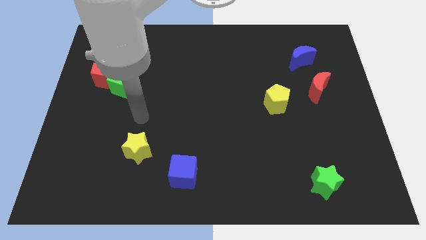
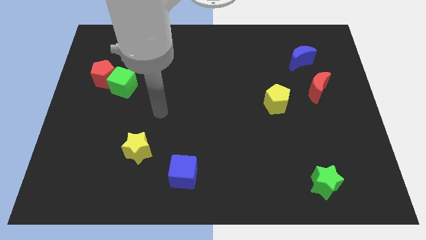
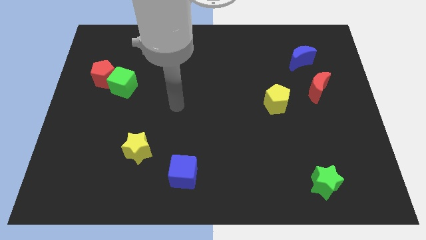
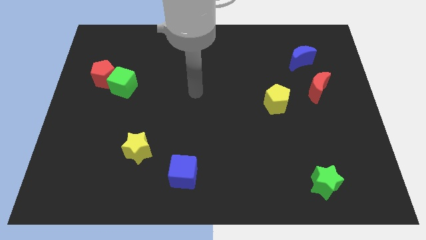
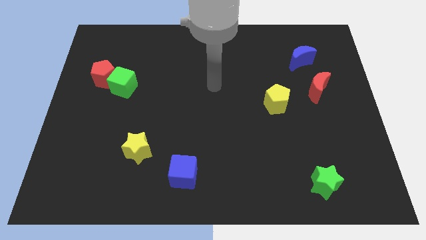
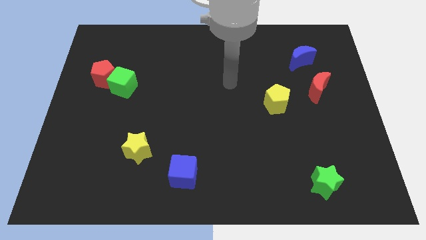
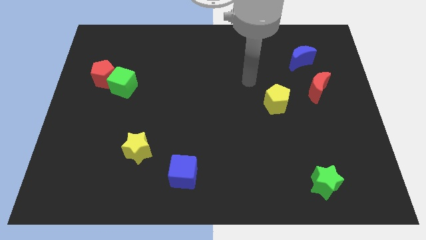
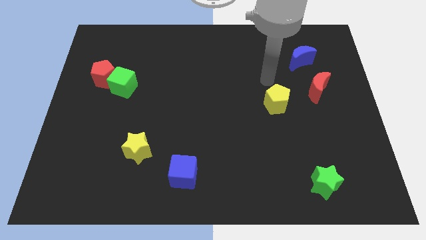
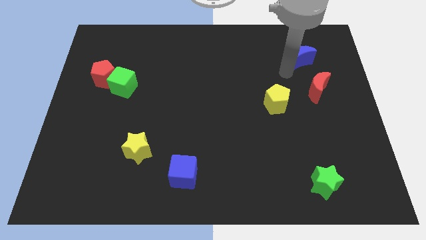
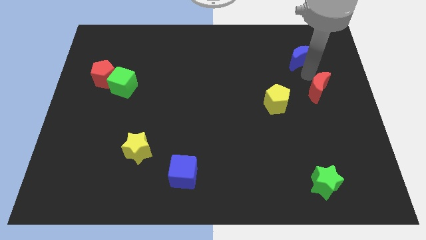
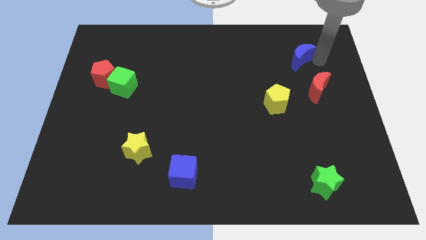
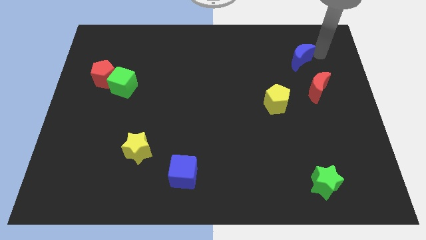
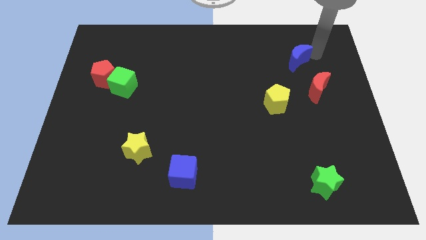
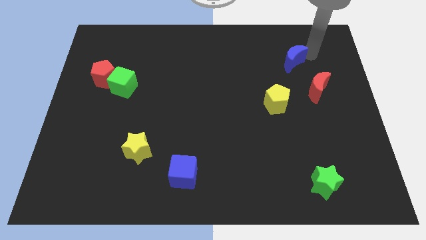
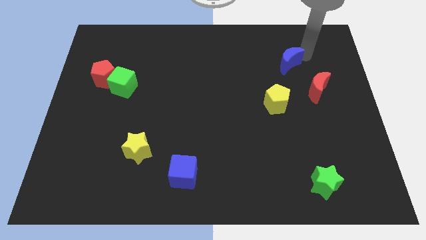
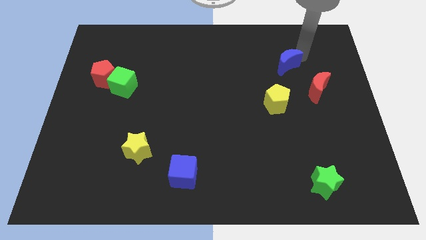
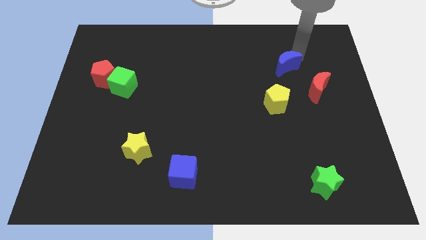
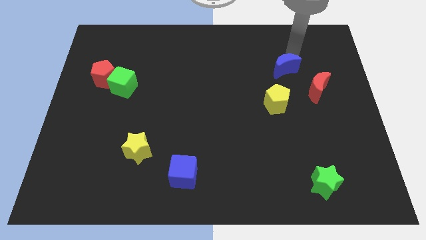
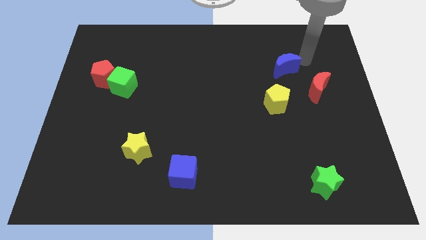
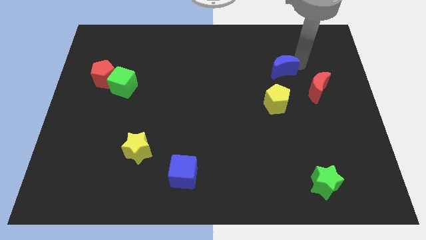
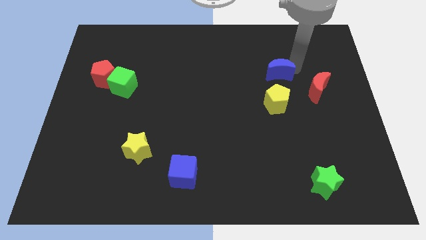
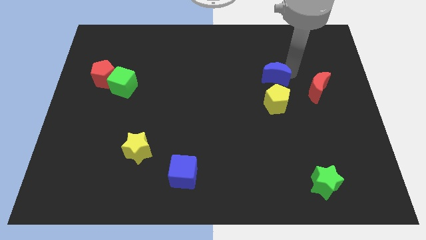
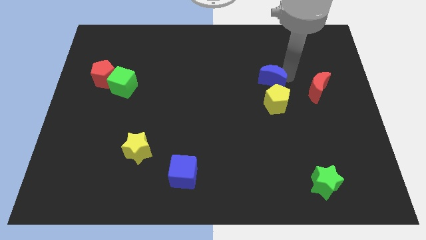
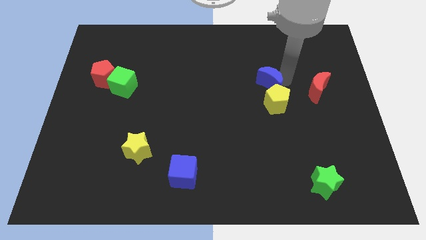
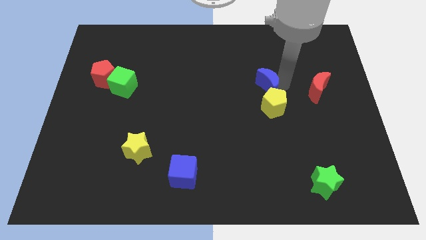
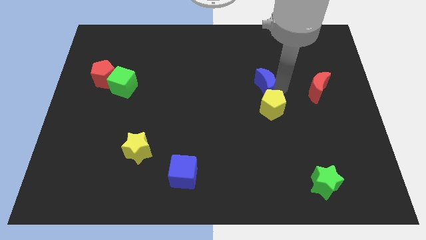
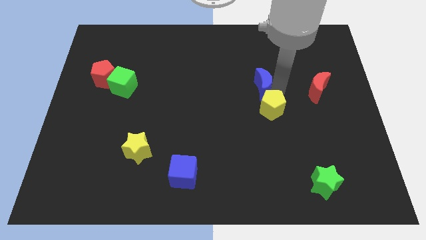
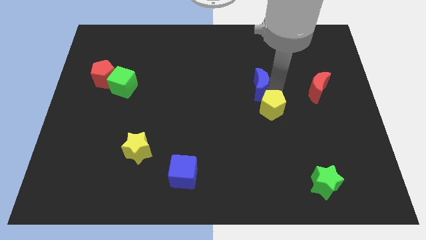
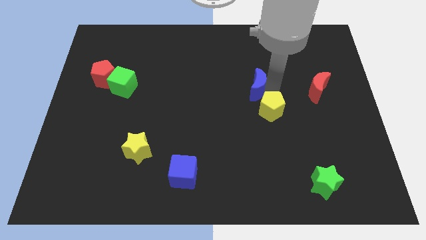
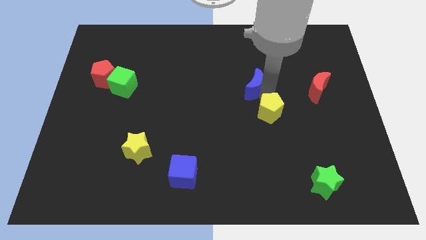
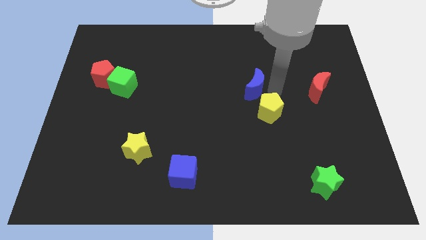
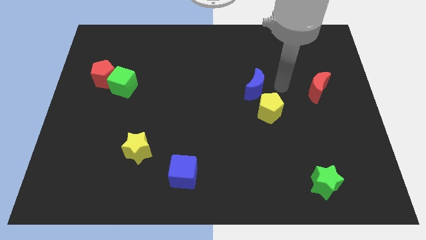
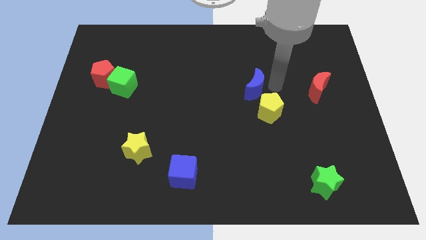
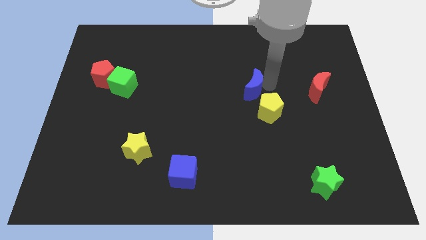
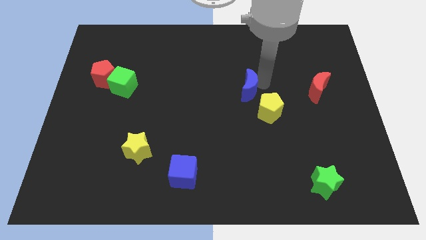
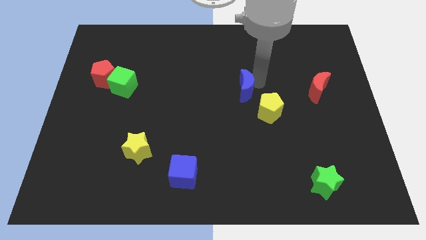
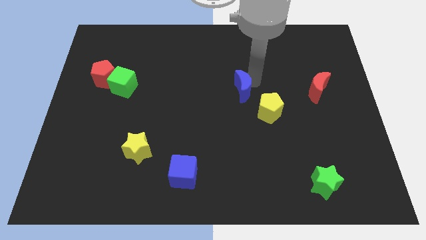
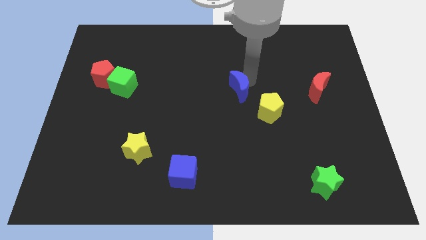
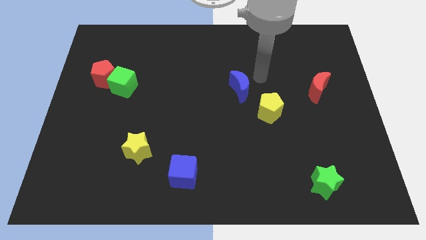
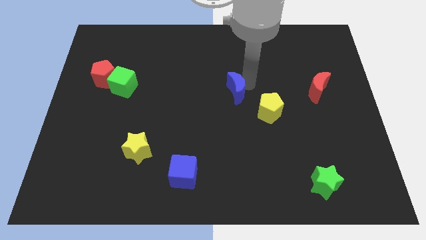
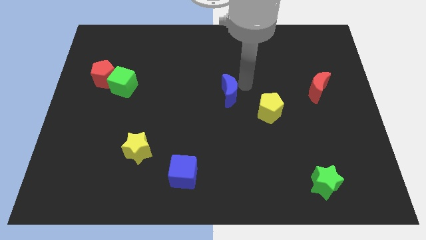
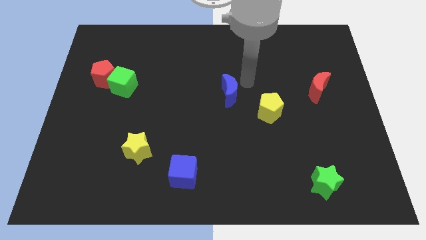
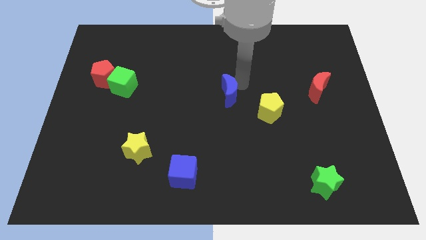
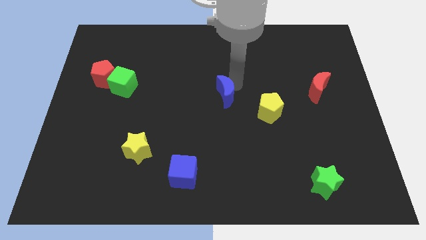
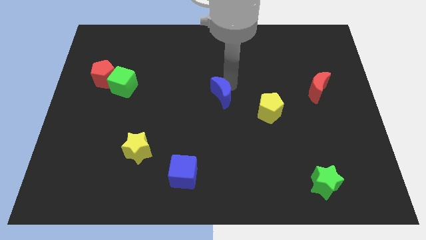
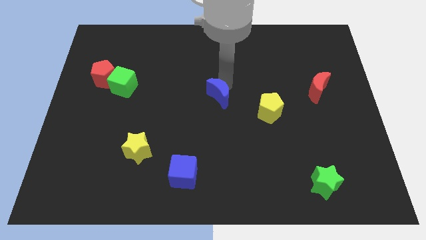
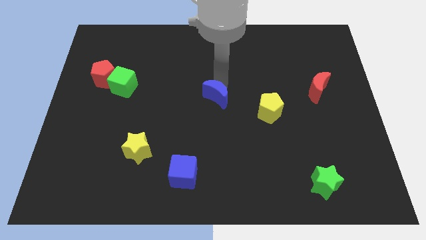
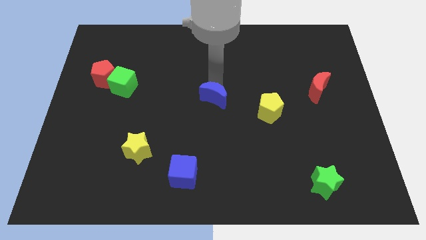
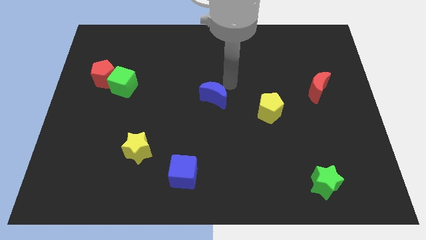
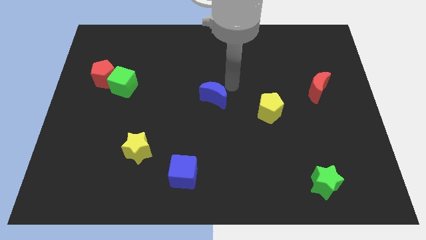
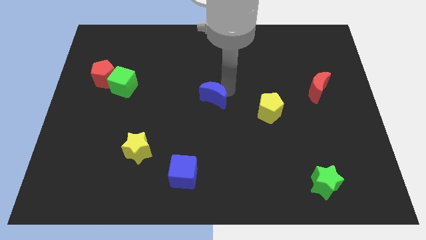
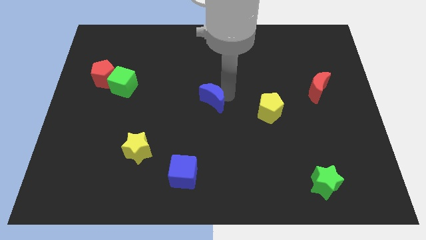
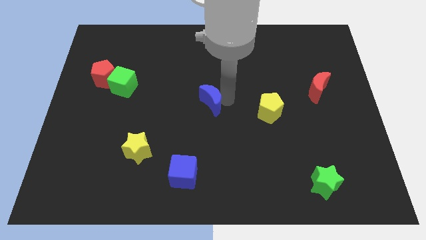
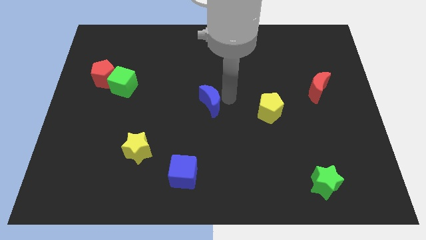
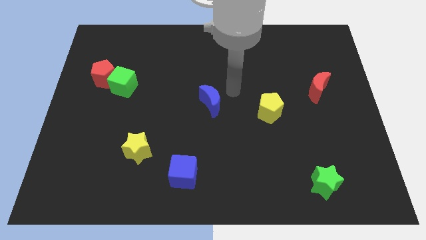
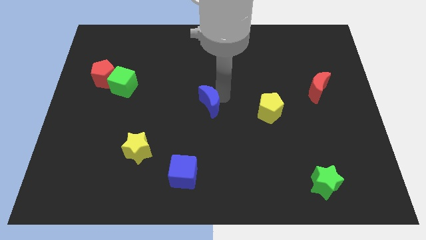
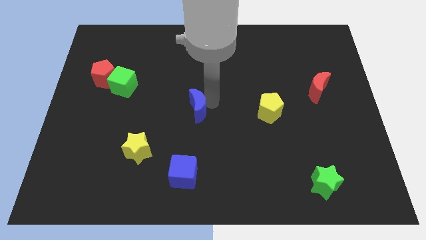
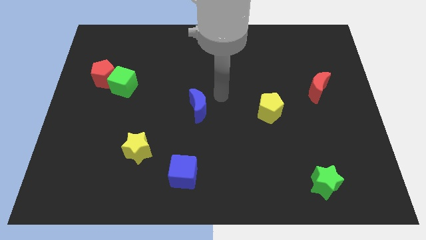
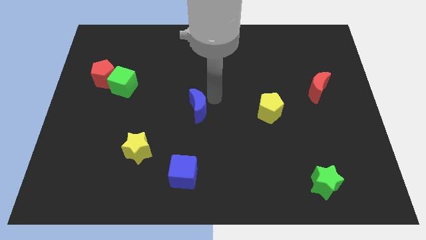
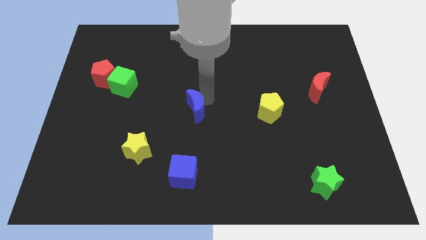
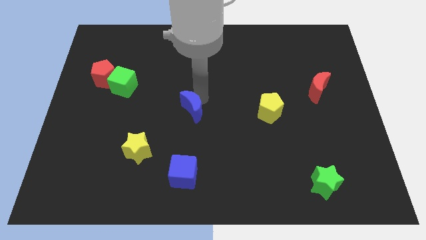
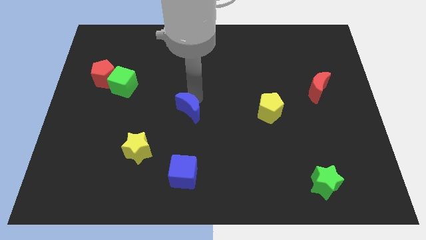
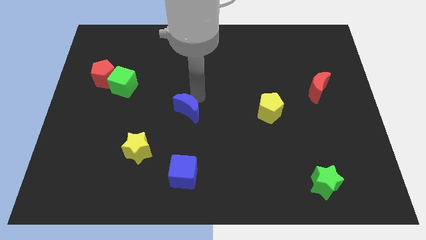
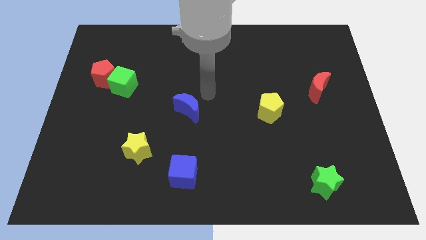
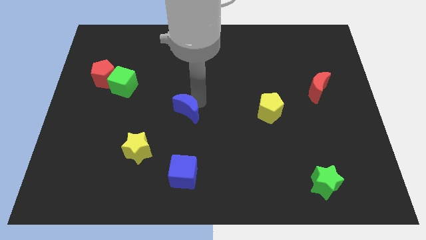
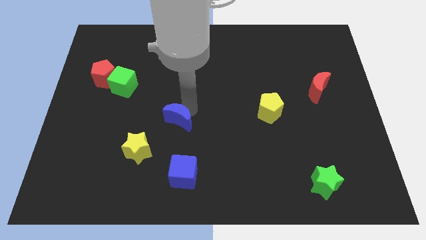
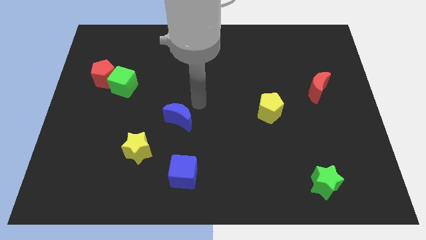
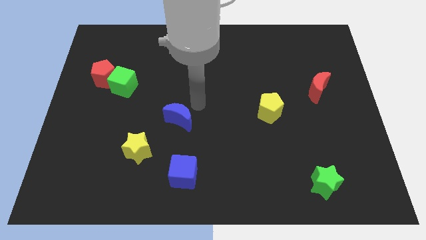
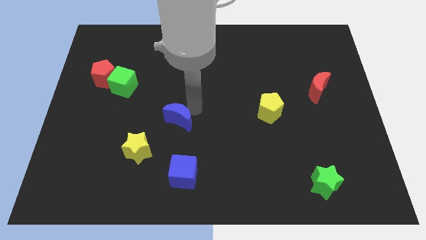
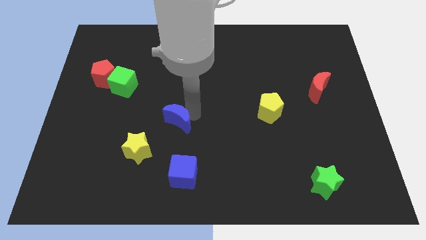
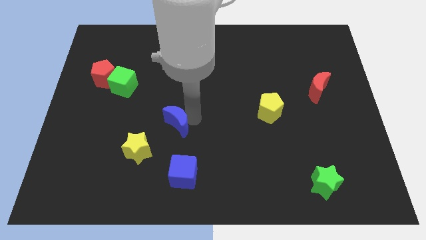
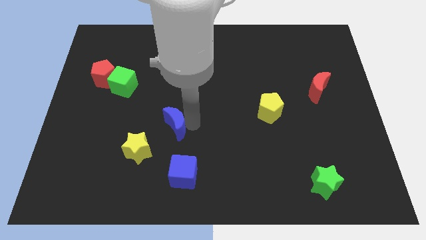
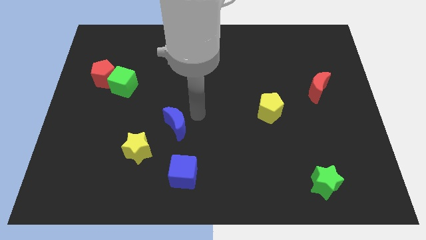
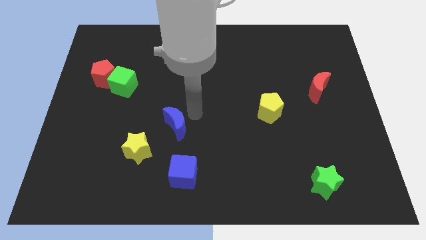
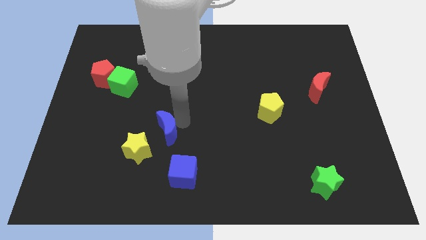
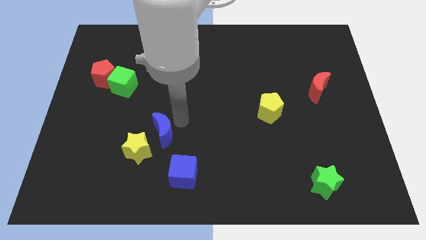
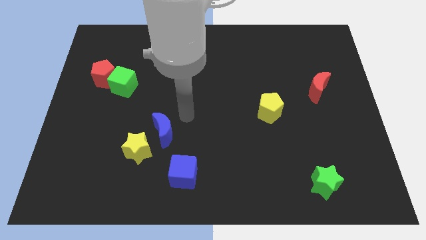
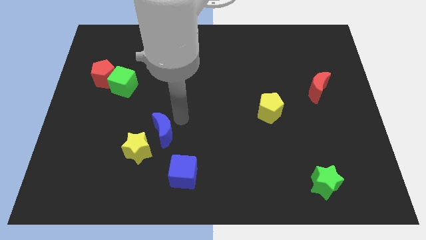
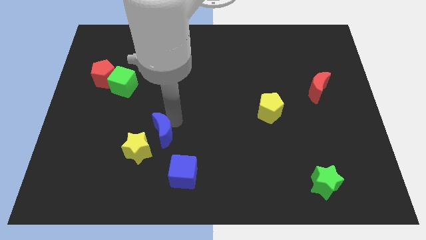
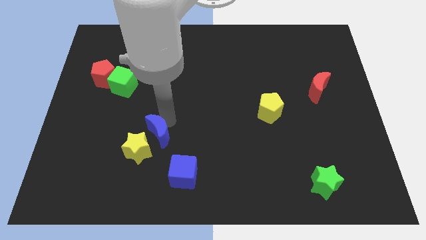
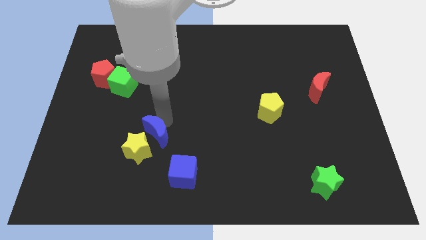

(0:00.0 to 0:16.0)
slide the blue moon next to the yellow star

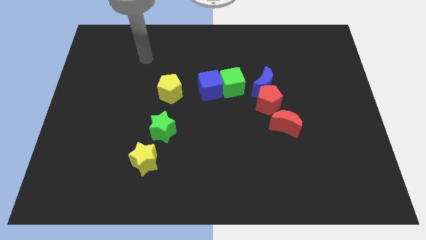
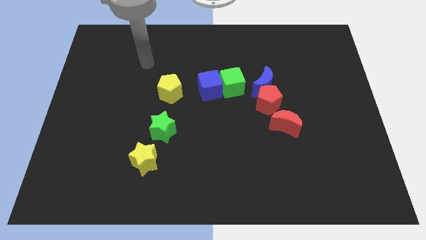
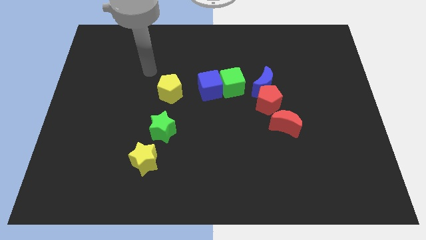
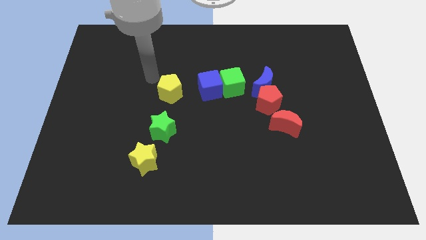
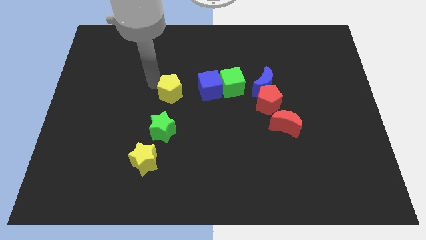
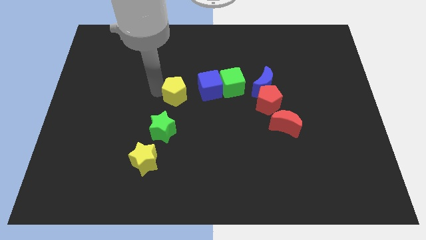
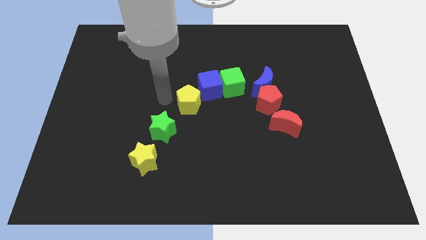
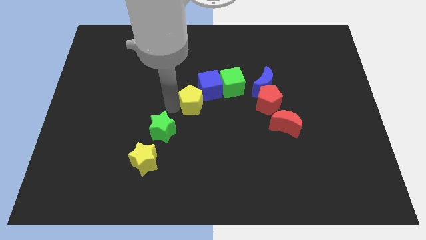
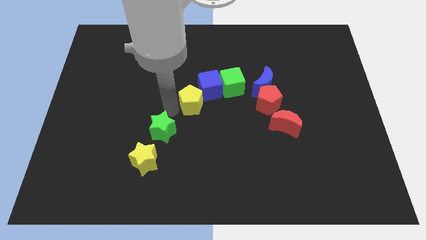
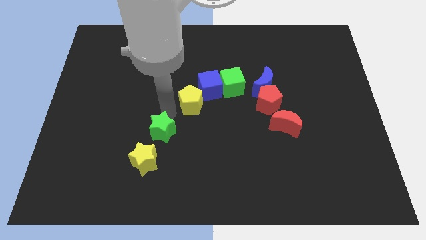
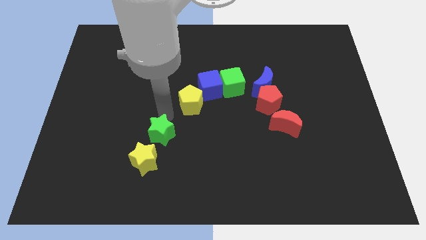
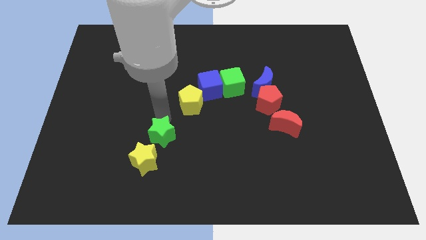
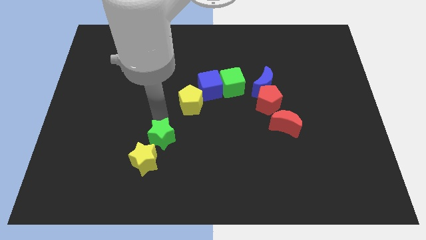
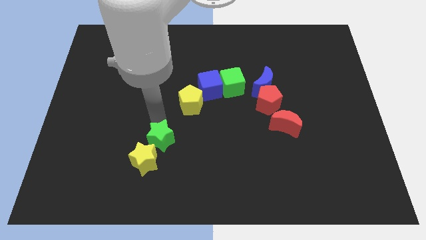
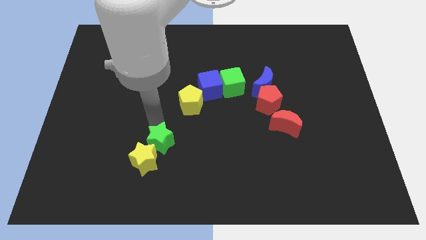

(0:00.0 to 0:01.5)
push the green star to the yellow star
